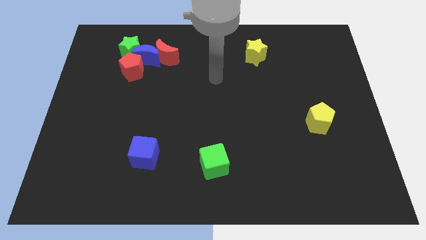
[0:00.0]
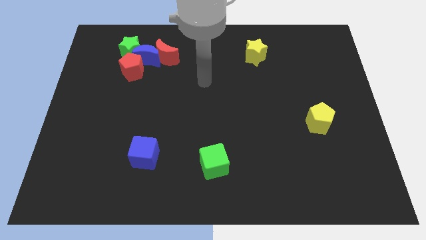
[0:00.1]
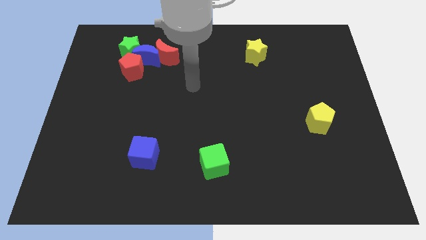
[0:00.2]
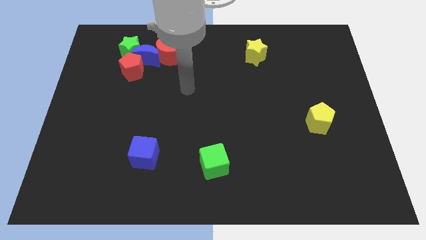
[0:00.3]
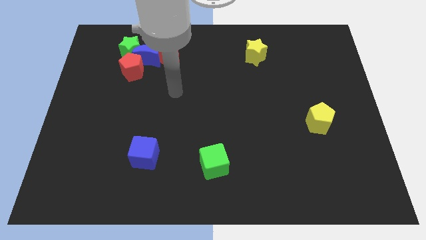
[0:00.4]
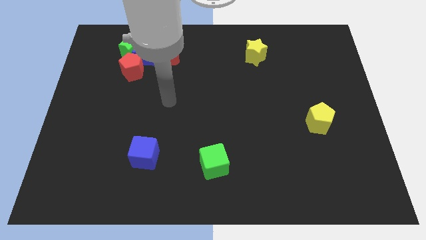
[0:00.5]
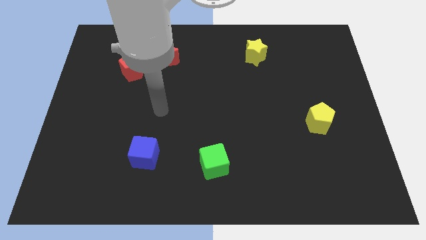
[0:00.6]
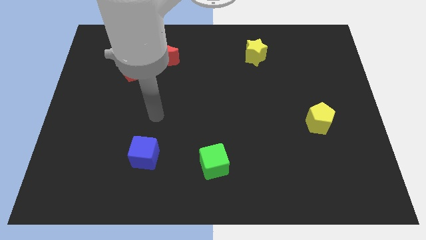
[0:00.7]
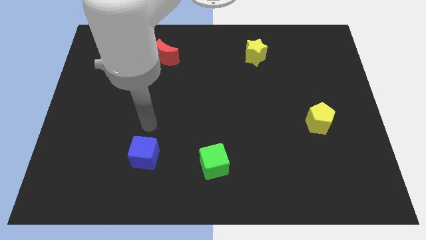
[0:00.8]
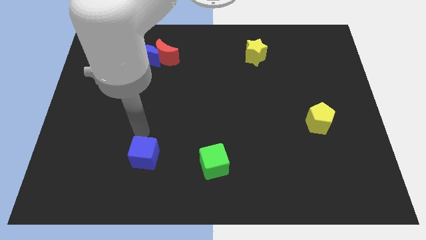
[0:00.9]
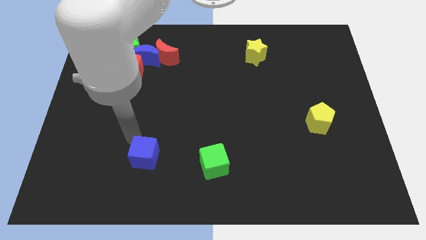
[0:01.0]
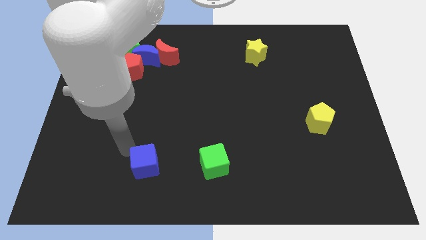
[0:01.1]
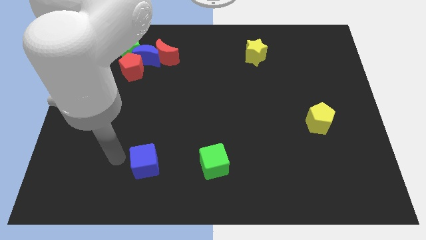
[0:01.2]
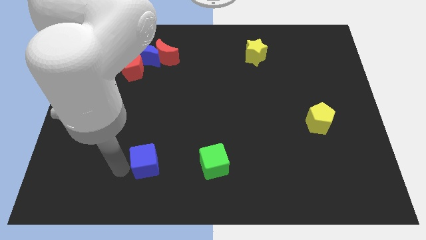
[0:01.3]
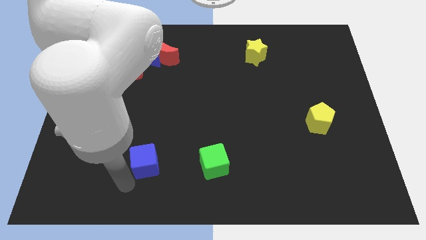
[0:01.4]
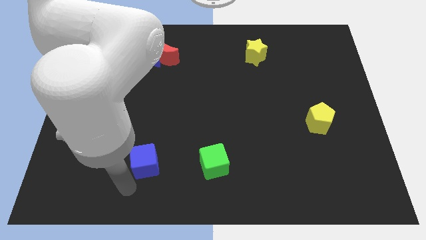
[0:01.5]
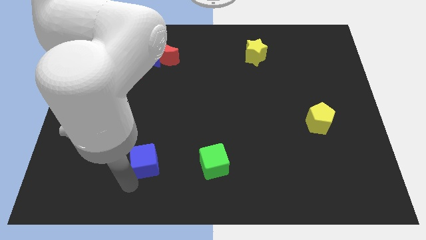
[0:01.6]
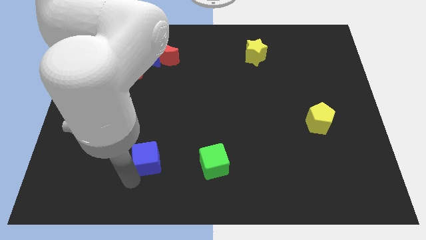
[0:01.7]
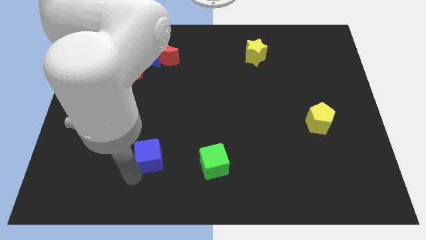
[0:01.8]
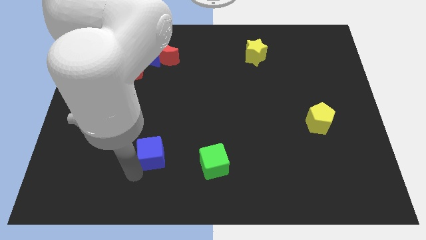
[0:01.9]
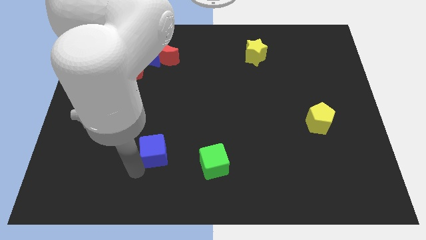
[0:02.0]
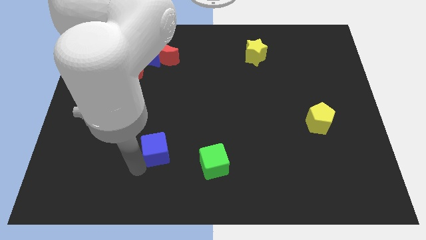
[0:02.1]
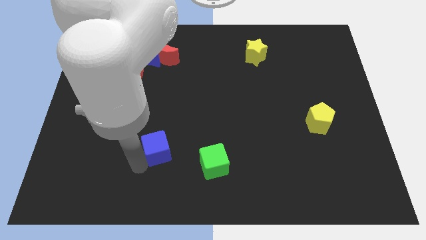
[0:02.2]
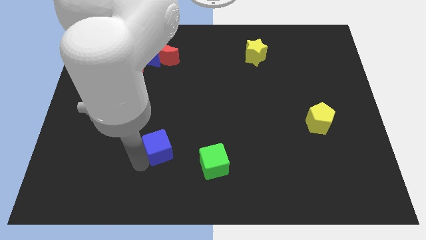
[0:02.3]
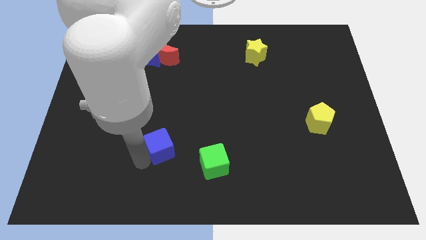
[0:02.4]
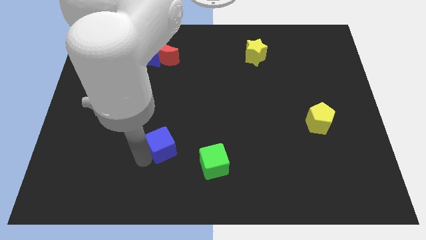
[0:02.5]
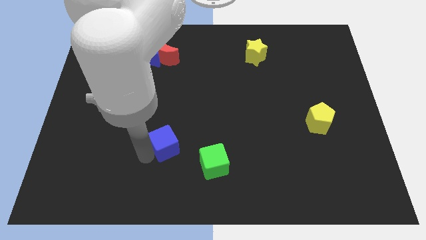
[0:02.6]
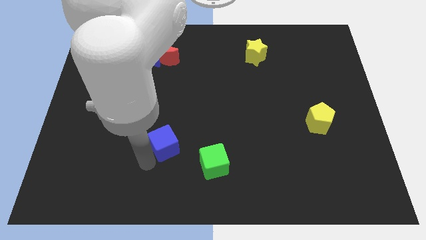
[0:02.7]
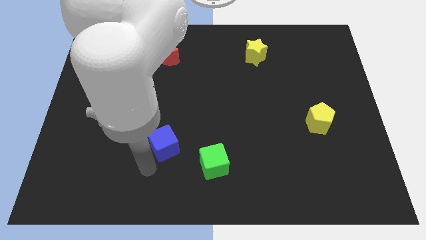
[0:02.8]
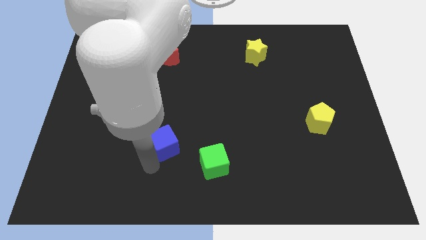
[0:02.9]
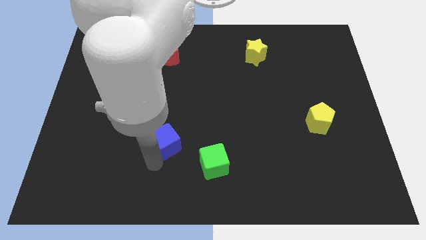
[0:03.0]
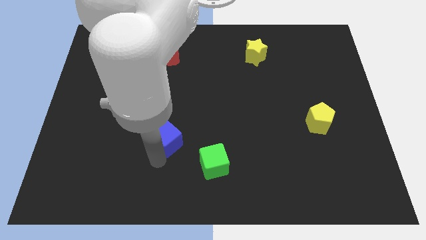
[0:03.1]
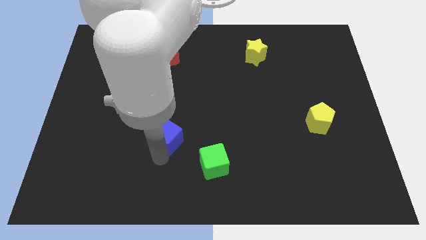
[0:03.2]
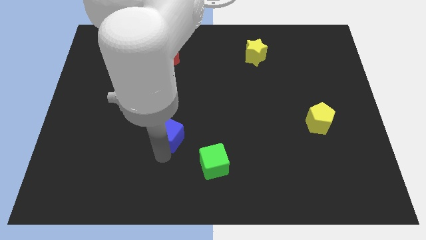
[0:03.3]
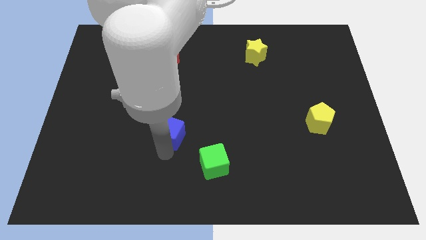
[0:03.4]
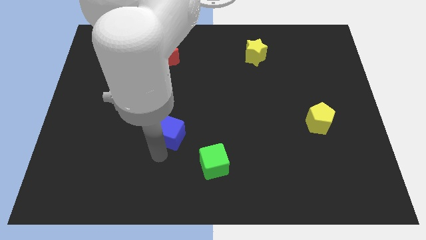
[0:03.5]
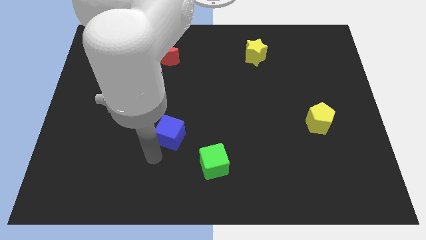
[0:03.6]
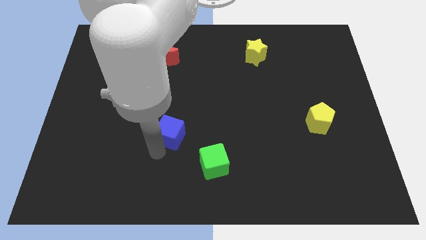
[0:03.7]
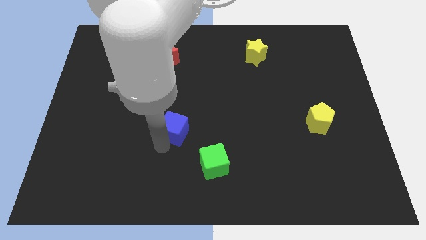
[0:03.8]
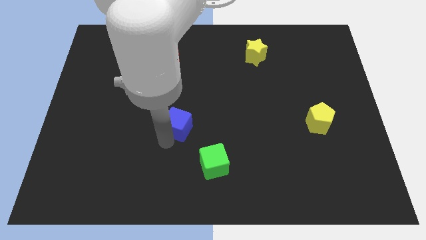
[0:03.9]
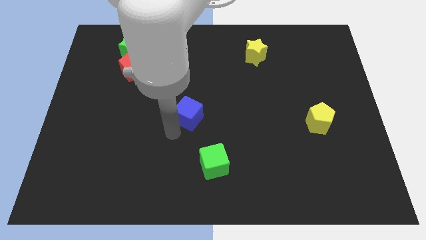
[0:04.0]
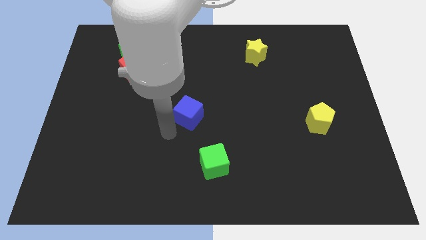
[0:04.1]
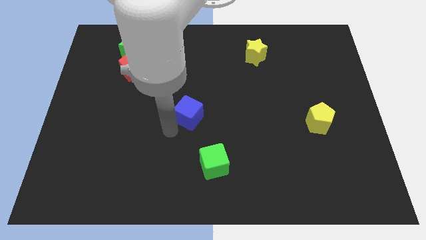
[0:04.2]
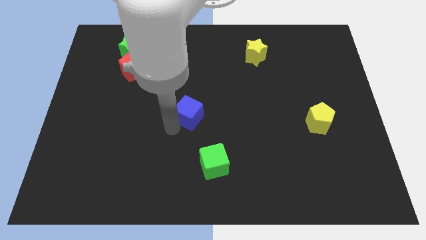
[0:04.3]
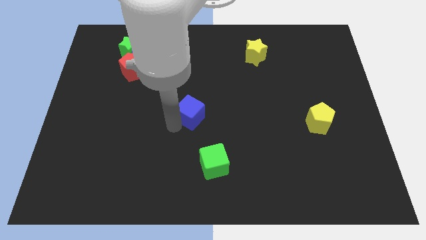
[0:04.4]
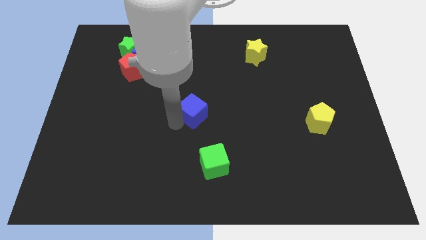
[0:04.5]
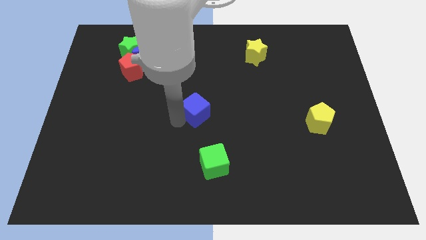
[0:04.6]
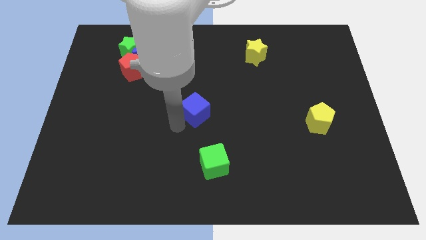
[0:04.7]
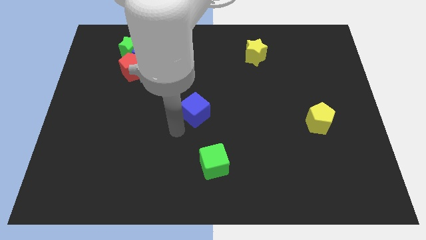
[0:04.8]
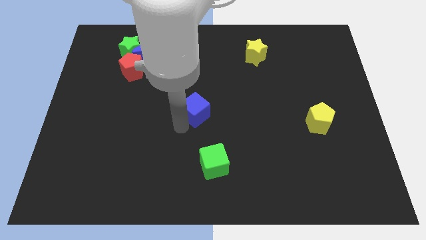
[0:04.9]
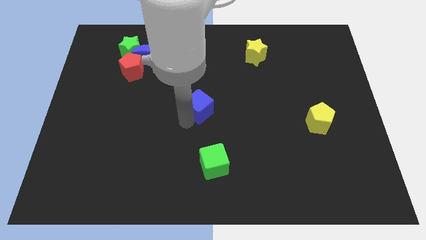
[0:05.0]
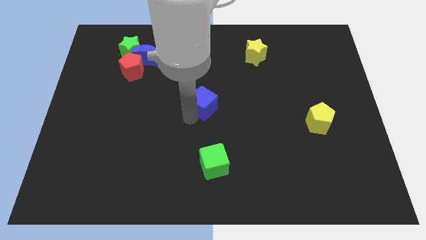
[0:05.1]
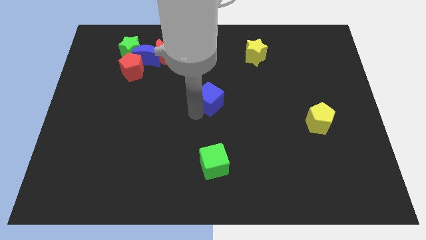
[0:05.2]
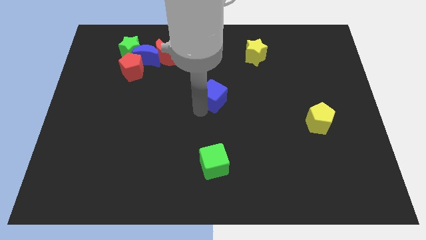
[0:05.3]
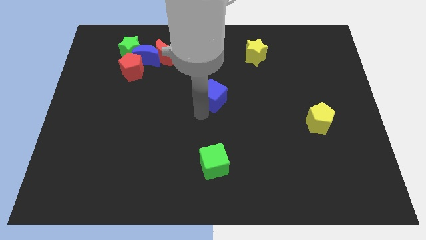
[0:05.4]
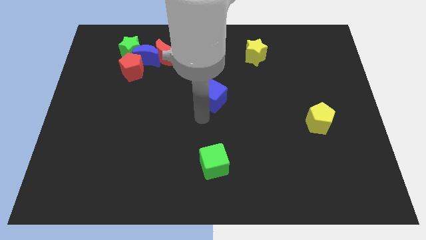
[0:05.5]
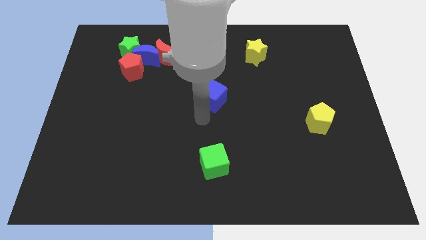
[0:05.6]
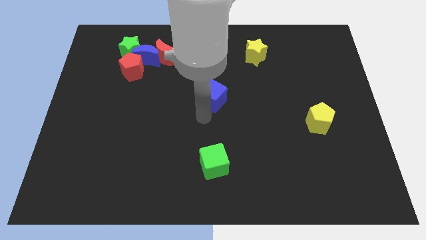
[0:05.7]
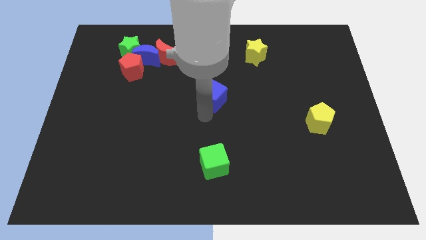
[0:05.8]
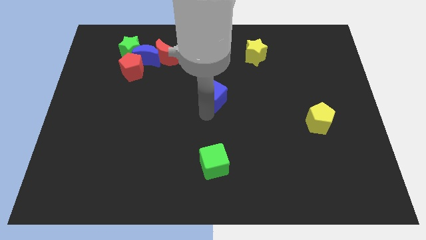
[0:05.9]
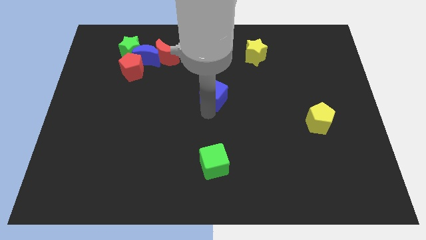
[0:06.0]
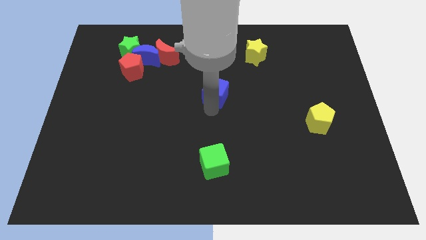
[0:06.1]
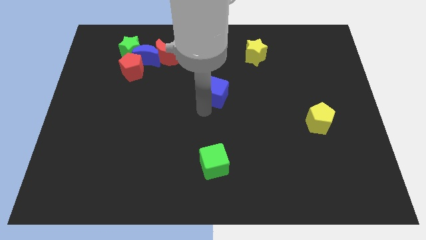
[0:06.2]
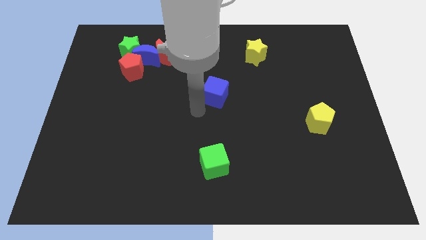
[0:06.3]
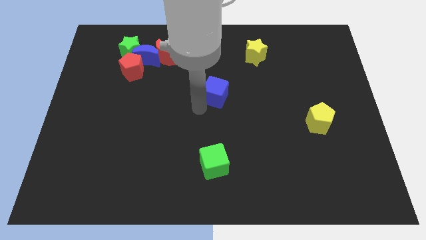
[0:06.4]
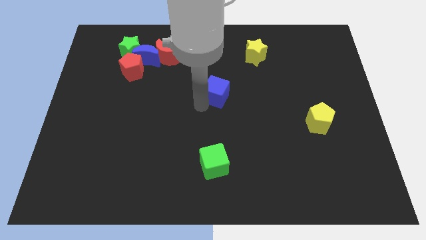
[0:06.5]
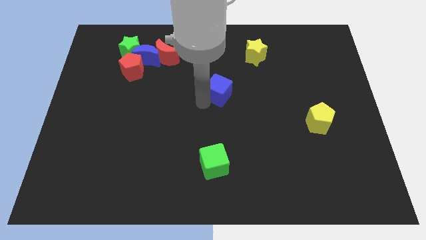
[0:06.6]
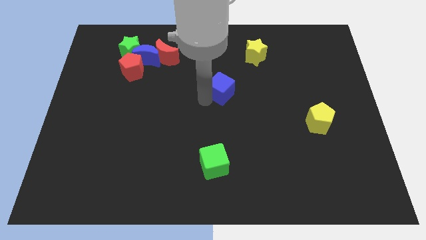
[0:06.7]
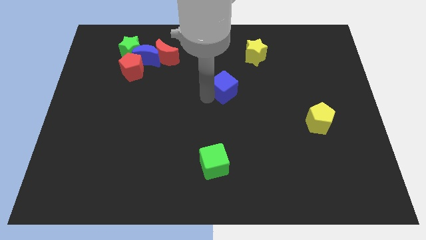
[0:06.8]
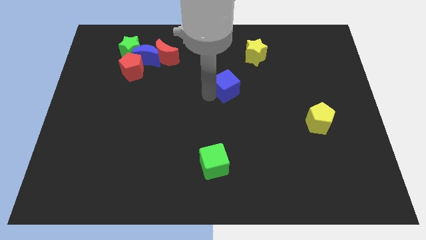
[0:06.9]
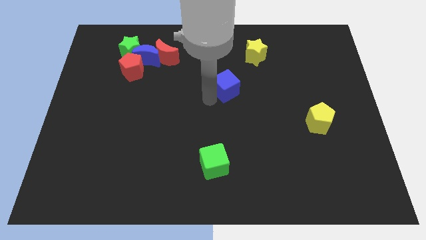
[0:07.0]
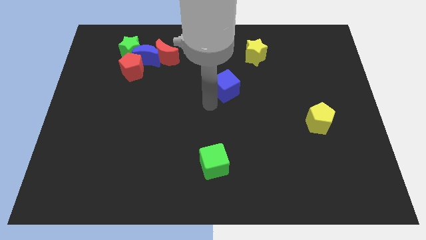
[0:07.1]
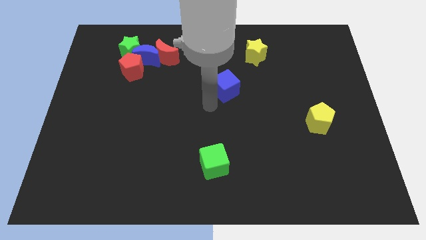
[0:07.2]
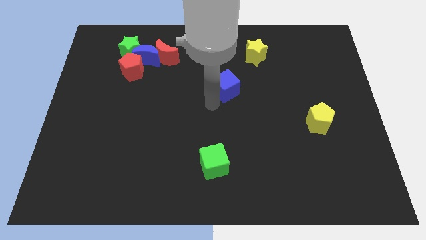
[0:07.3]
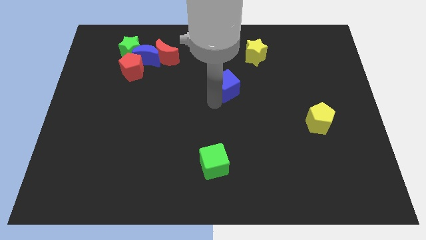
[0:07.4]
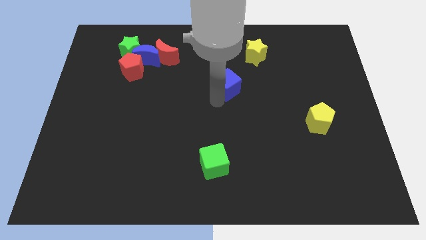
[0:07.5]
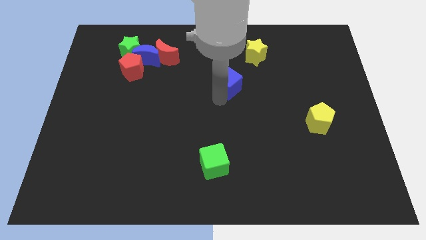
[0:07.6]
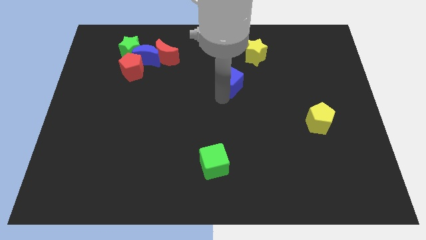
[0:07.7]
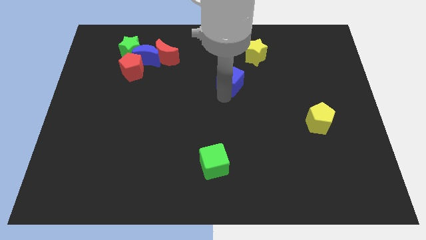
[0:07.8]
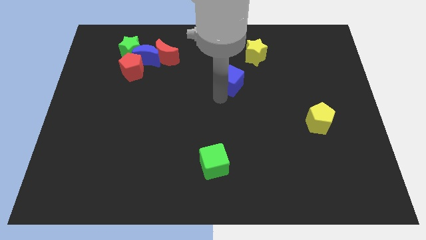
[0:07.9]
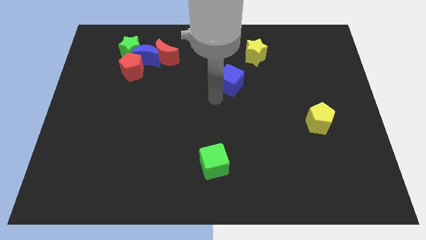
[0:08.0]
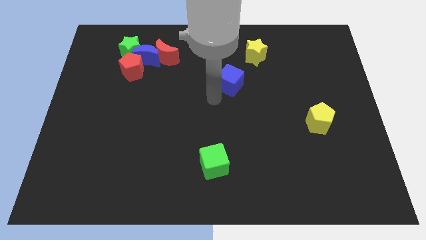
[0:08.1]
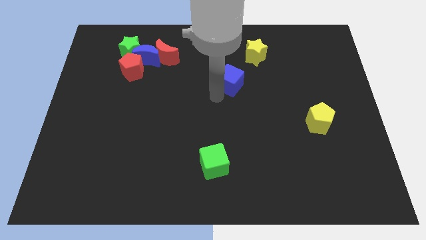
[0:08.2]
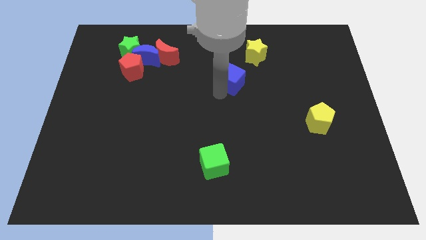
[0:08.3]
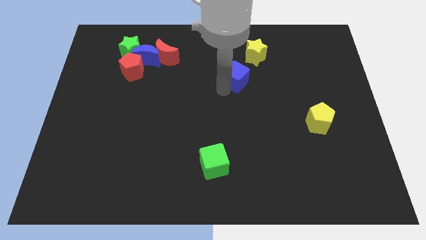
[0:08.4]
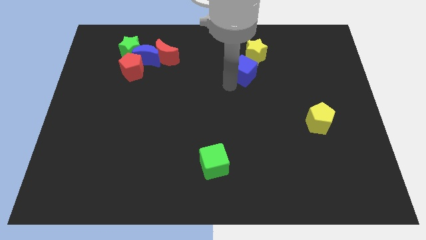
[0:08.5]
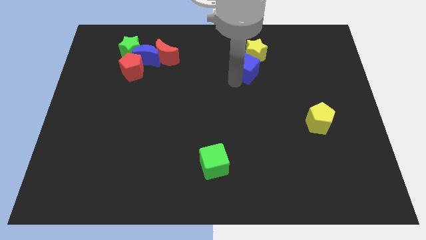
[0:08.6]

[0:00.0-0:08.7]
move the blue cube to the yellow star
